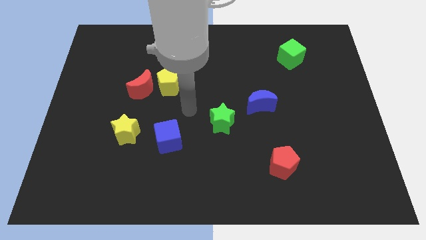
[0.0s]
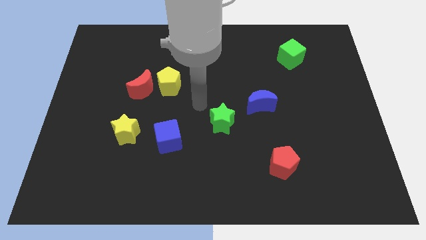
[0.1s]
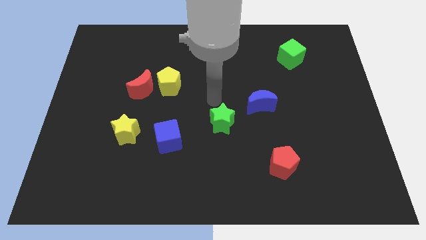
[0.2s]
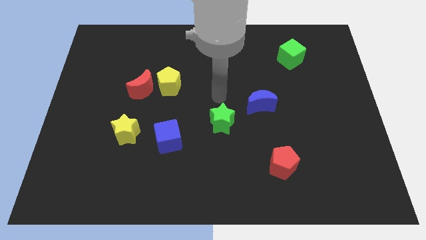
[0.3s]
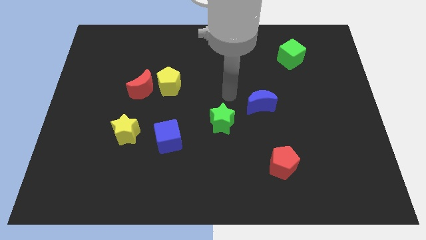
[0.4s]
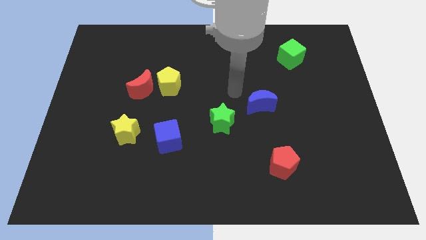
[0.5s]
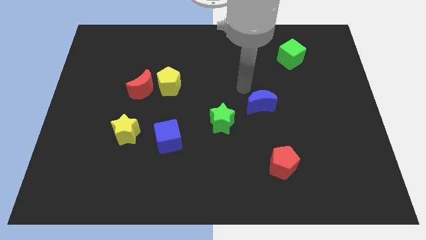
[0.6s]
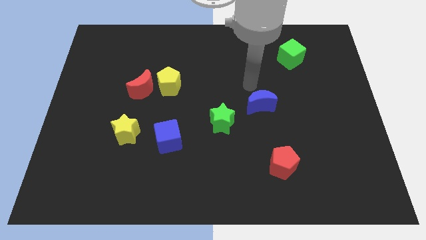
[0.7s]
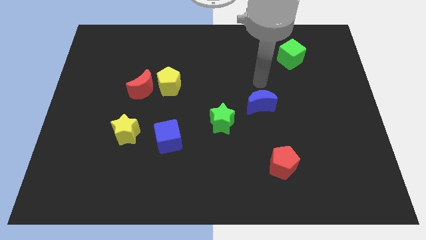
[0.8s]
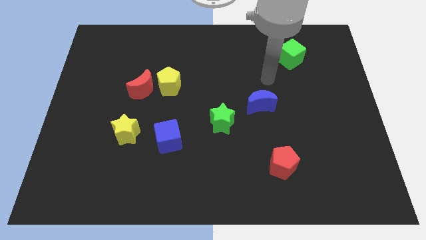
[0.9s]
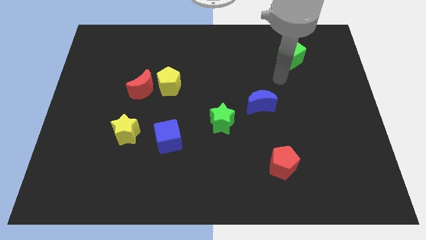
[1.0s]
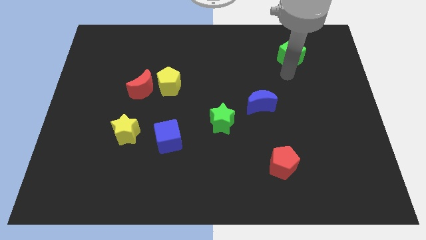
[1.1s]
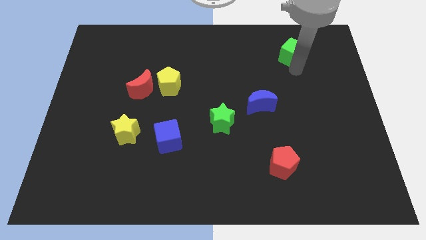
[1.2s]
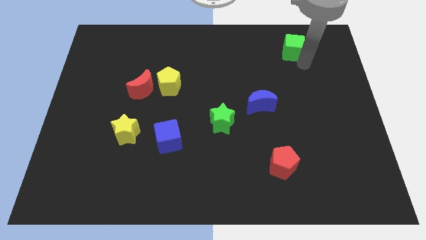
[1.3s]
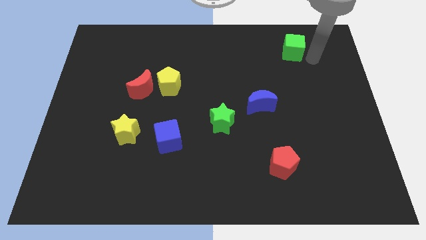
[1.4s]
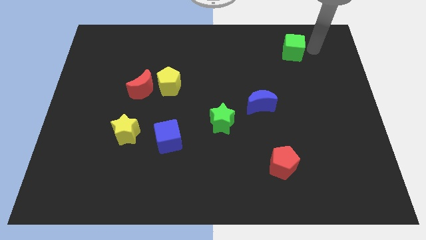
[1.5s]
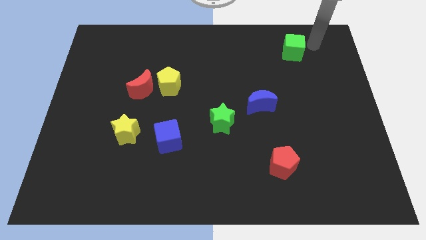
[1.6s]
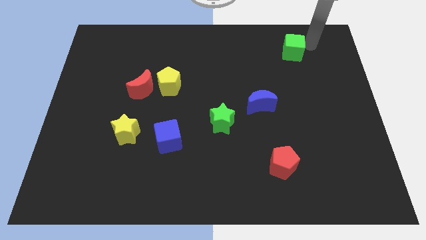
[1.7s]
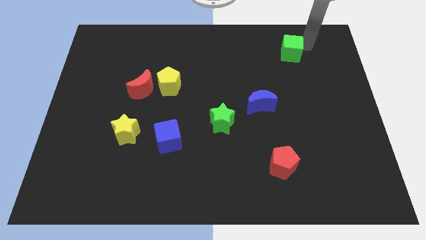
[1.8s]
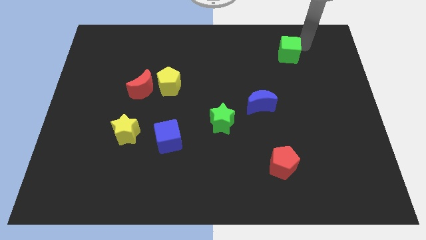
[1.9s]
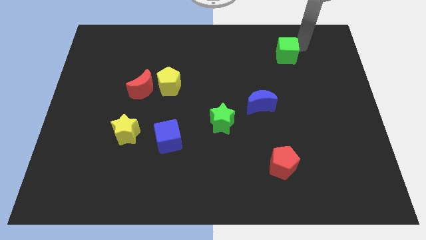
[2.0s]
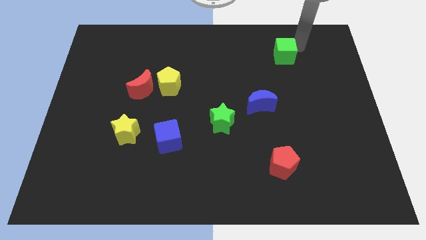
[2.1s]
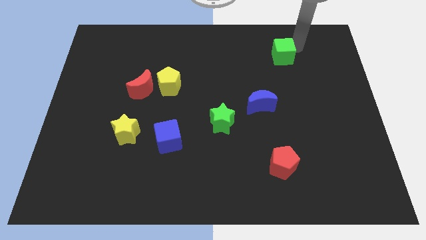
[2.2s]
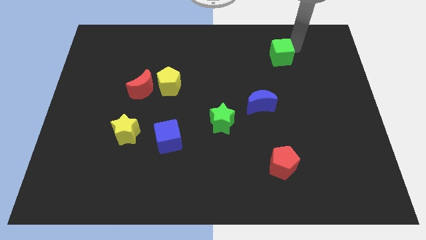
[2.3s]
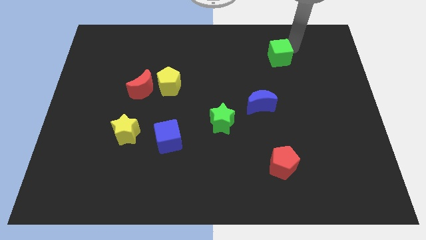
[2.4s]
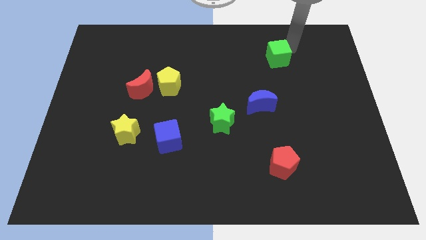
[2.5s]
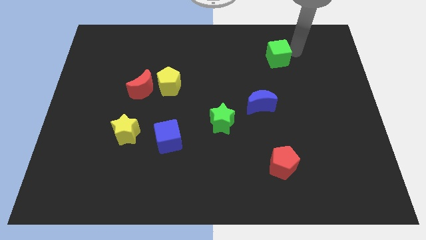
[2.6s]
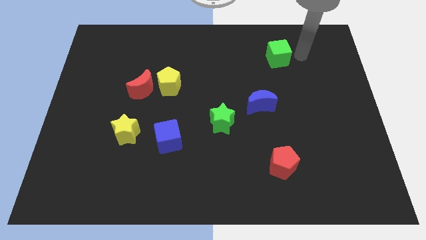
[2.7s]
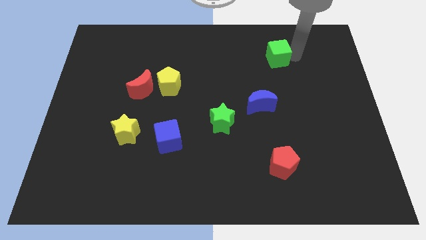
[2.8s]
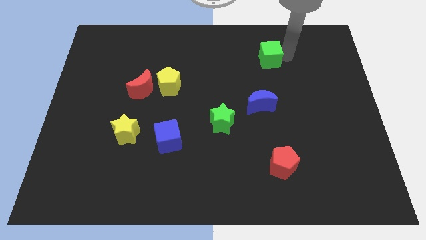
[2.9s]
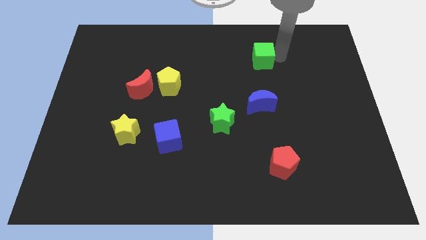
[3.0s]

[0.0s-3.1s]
move the green cube slightly left

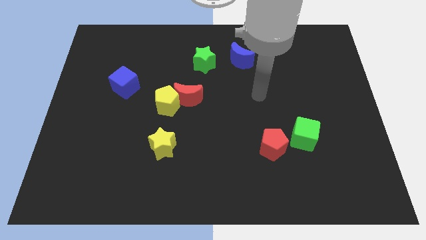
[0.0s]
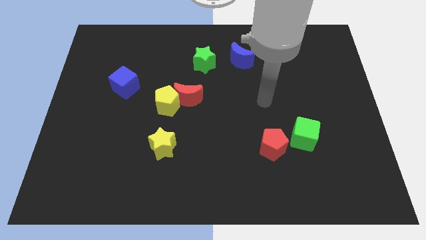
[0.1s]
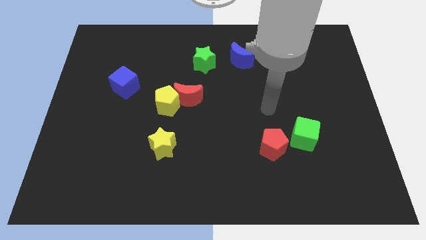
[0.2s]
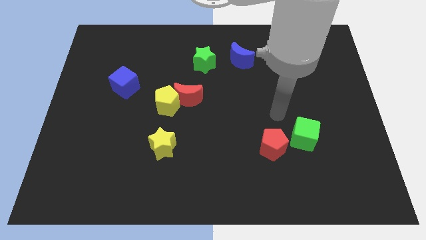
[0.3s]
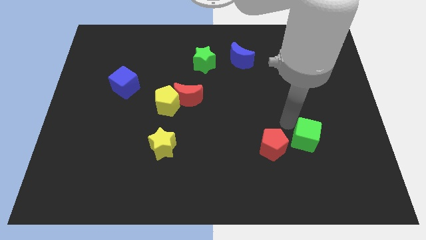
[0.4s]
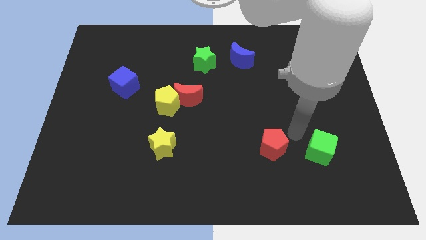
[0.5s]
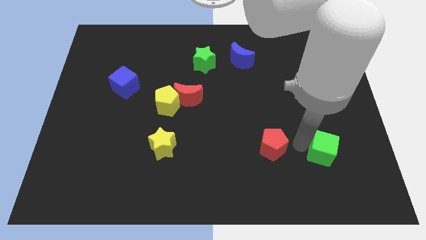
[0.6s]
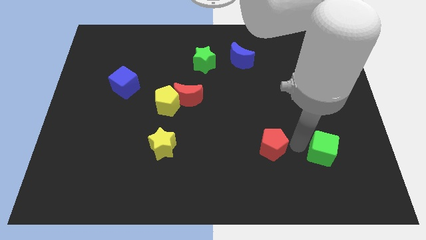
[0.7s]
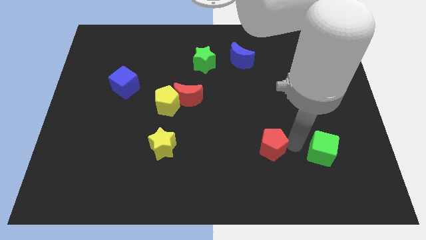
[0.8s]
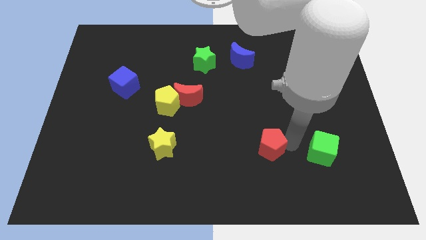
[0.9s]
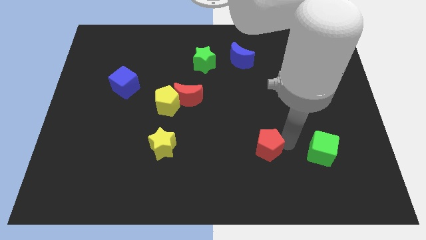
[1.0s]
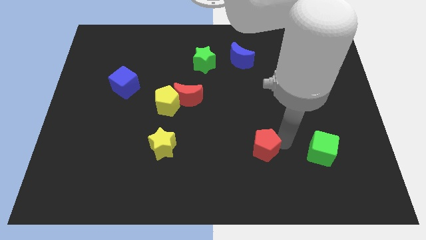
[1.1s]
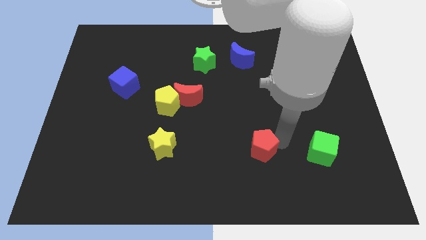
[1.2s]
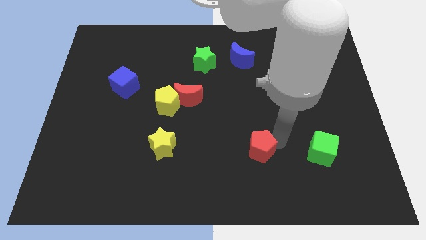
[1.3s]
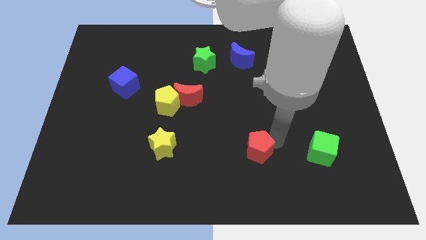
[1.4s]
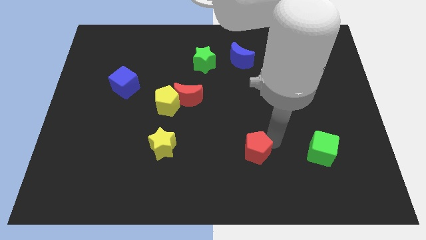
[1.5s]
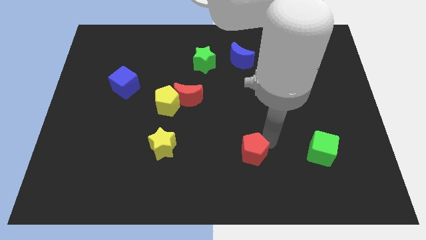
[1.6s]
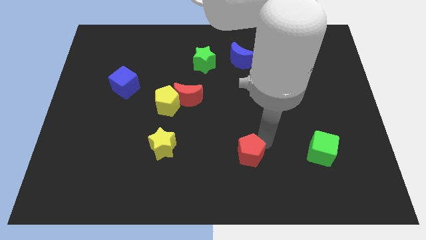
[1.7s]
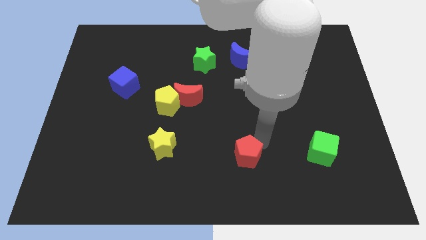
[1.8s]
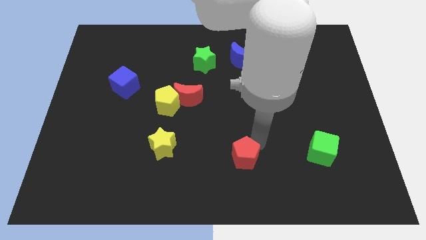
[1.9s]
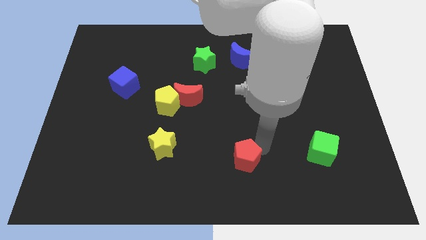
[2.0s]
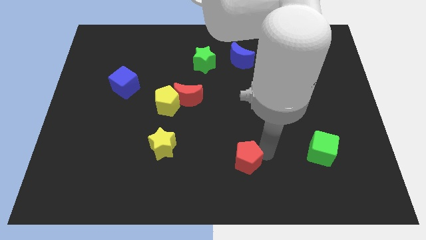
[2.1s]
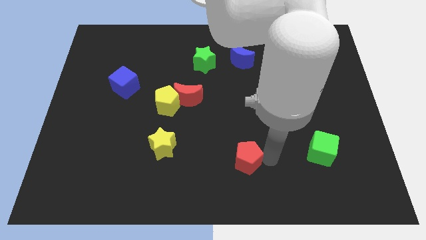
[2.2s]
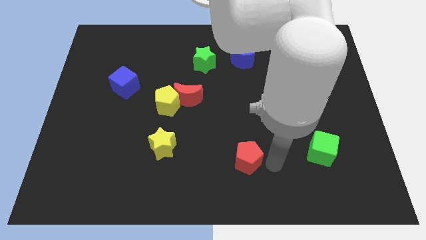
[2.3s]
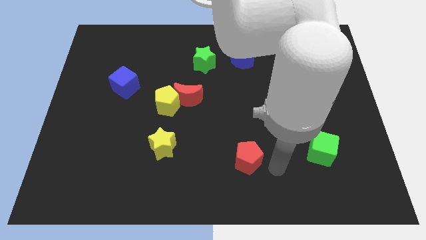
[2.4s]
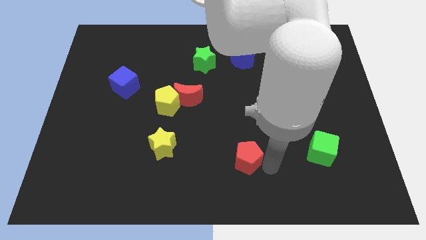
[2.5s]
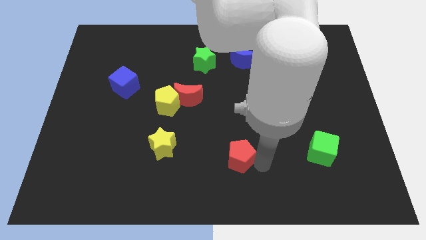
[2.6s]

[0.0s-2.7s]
slide the red pentagon slightly left

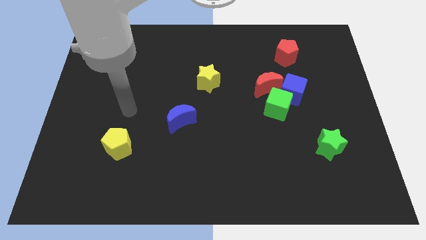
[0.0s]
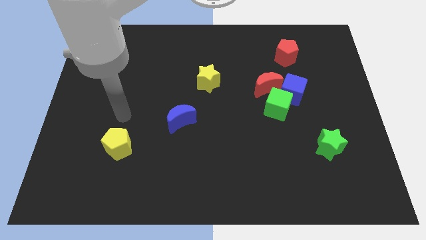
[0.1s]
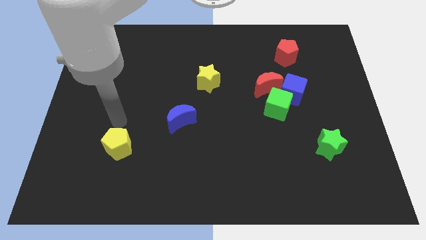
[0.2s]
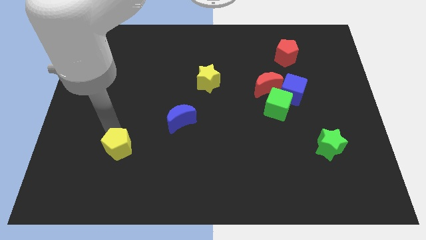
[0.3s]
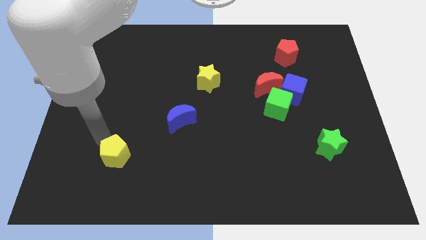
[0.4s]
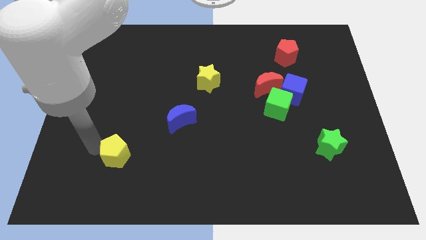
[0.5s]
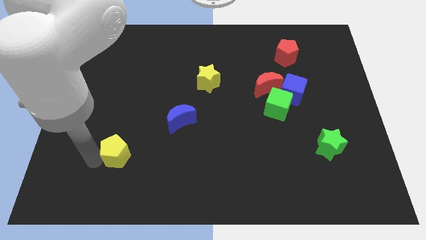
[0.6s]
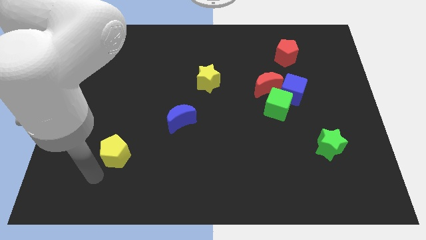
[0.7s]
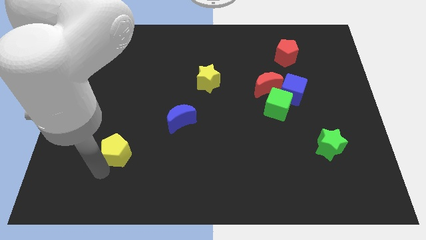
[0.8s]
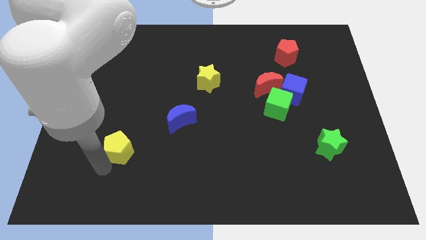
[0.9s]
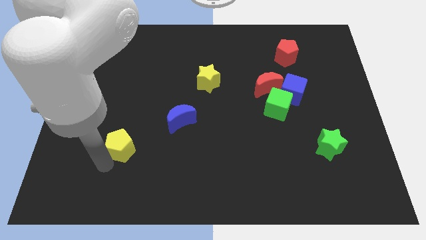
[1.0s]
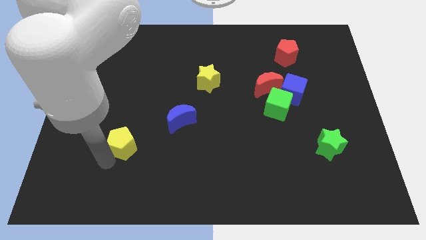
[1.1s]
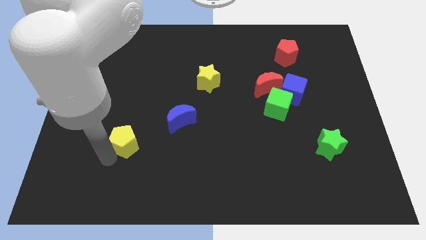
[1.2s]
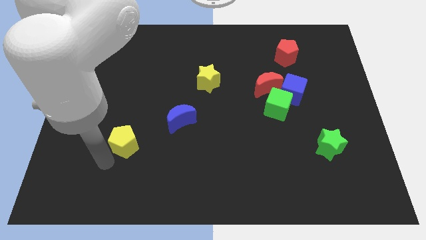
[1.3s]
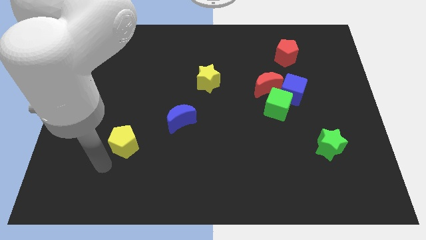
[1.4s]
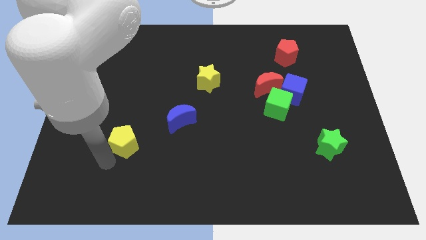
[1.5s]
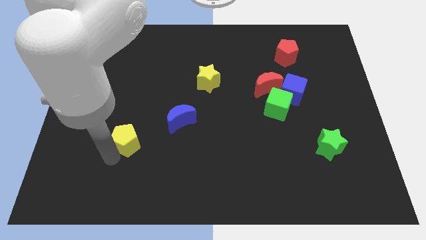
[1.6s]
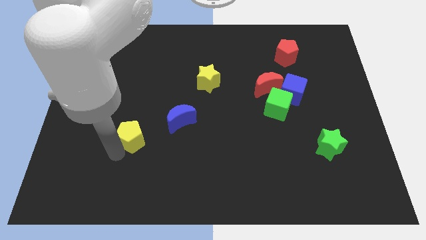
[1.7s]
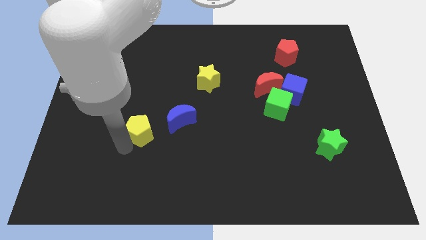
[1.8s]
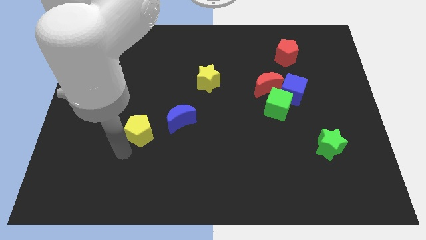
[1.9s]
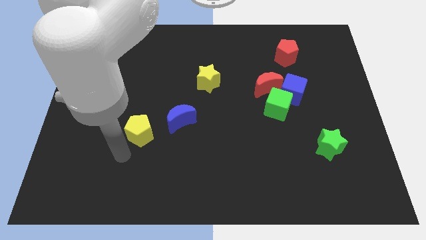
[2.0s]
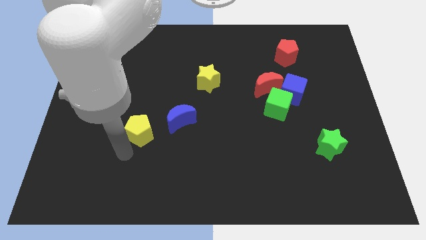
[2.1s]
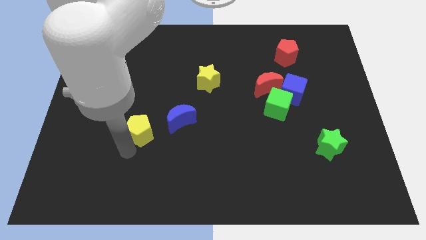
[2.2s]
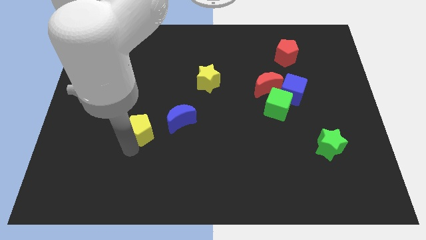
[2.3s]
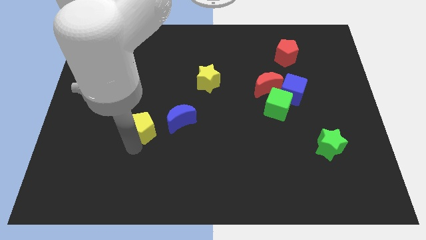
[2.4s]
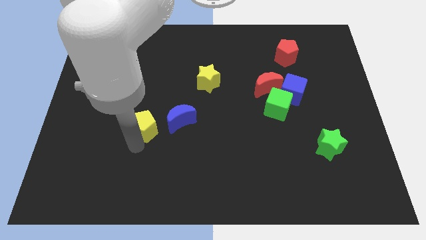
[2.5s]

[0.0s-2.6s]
push the yellow pentagon up and right diagonally a little bit
